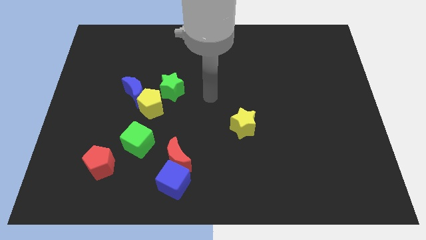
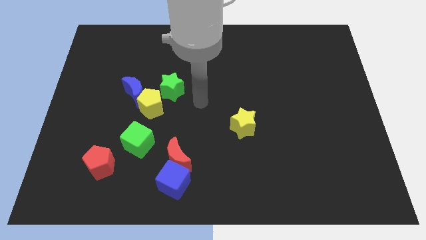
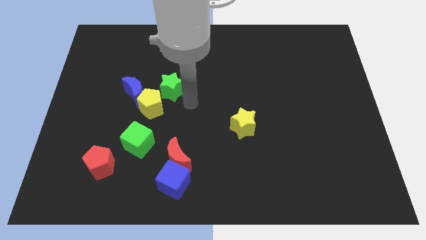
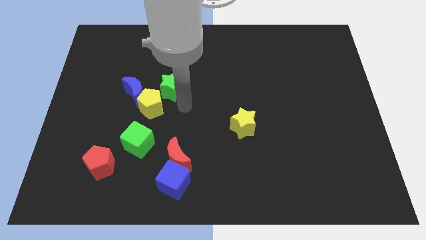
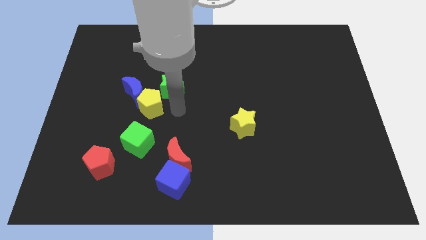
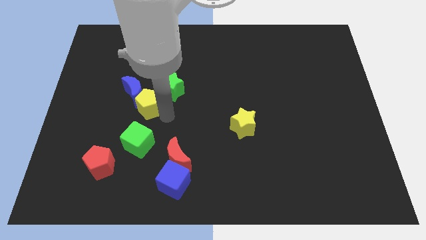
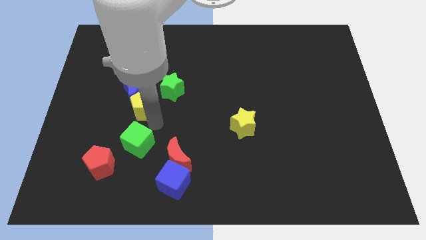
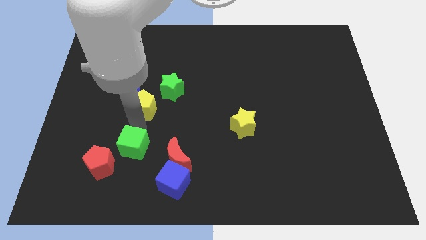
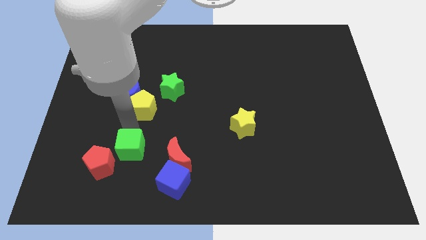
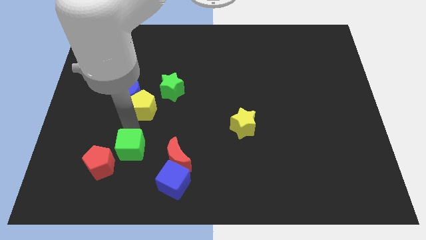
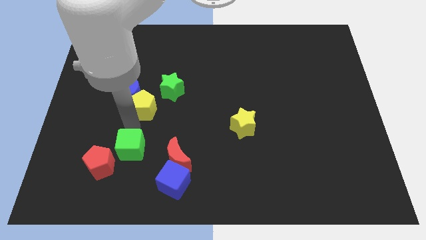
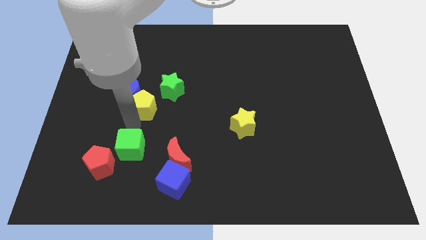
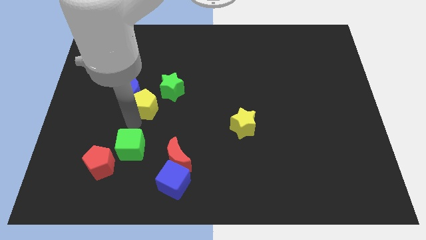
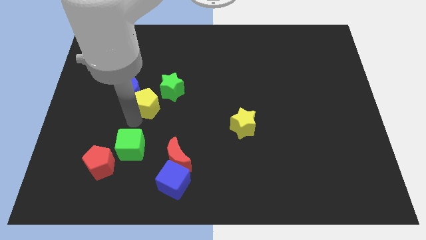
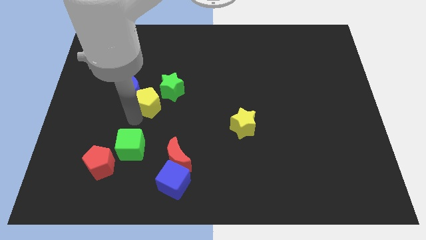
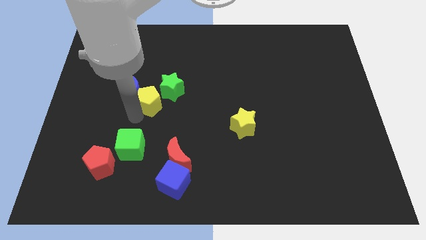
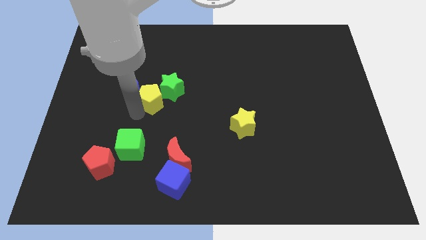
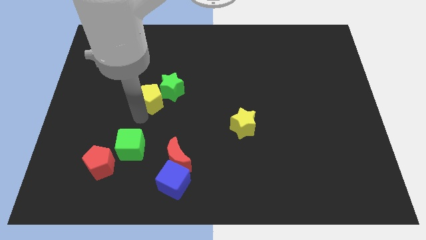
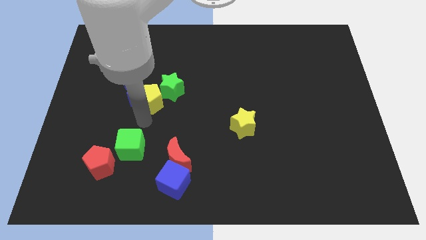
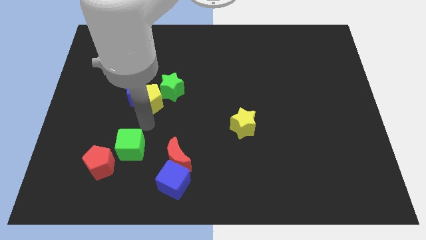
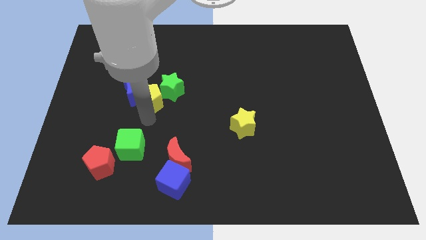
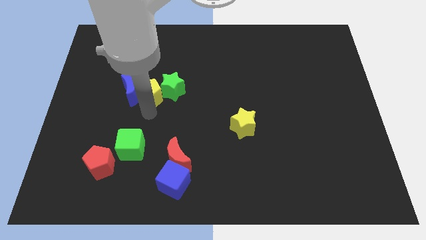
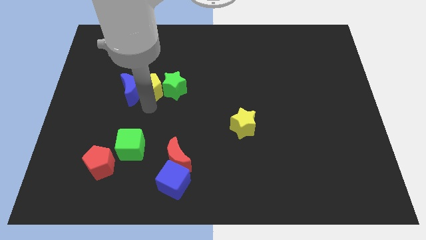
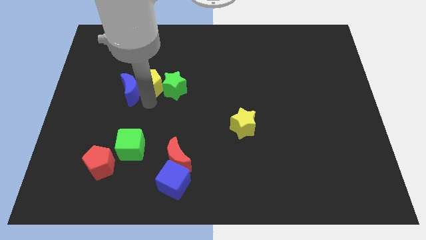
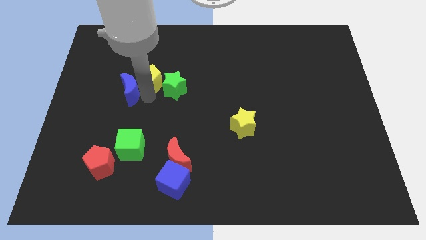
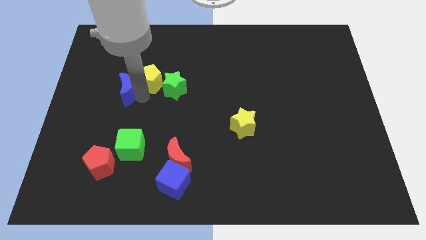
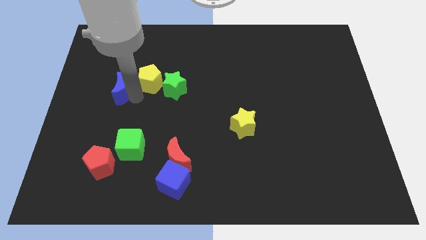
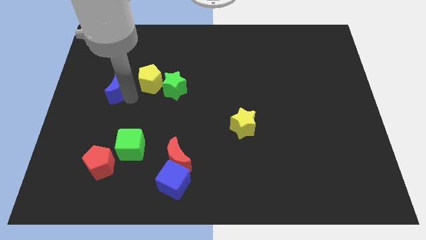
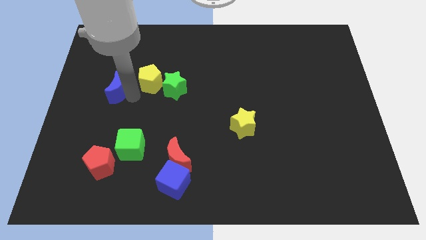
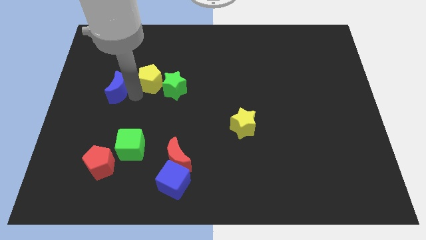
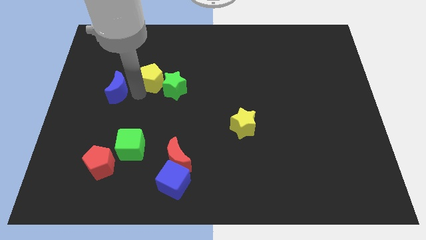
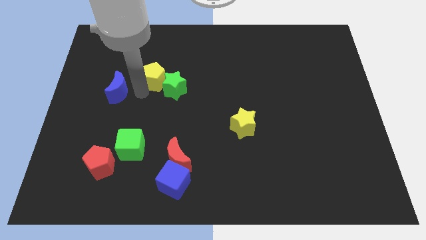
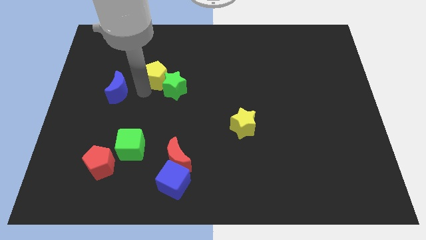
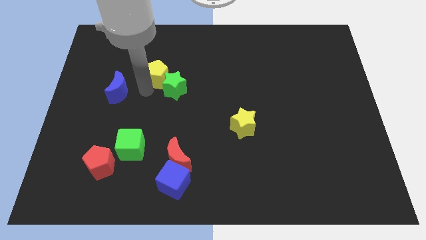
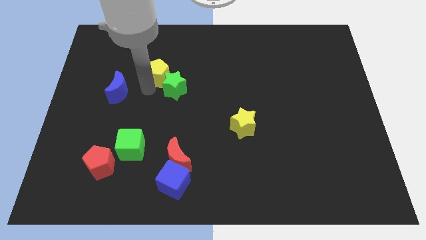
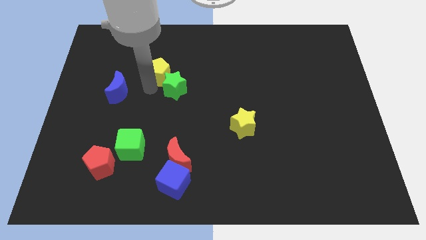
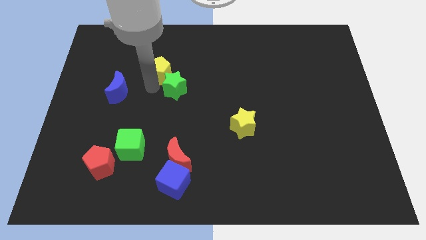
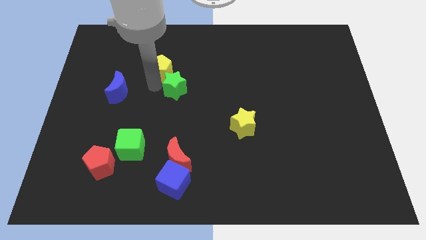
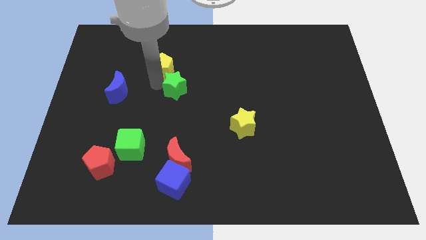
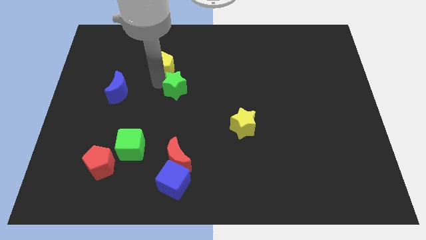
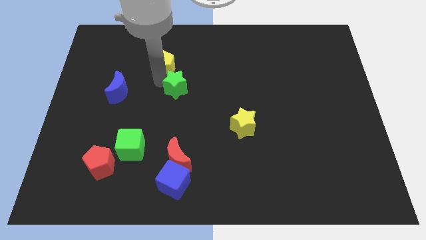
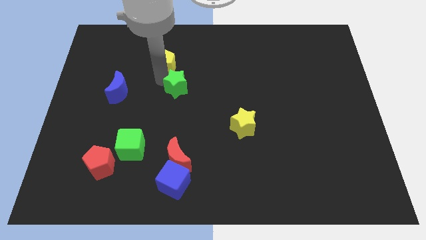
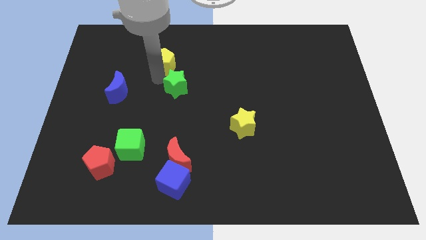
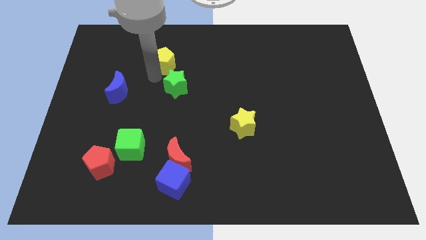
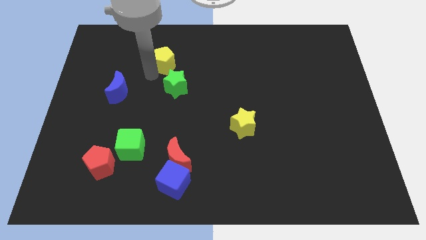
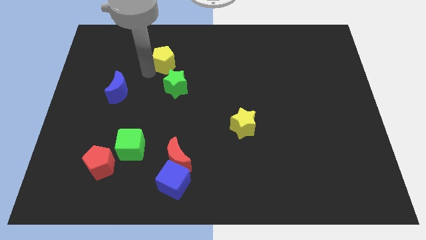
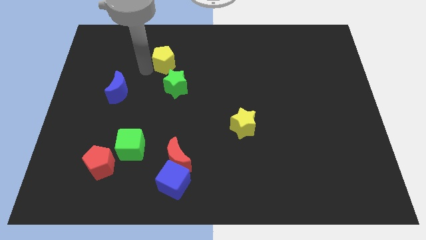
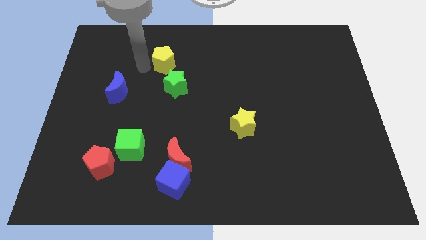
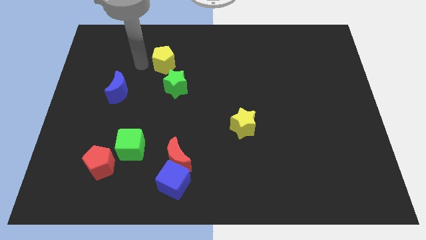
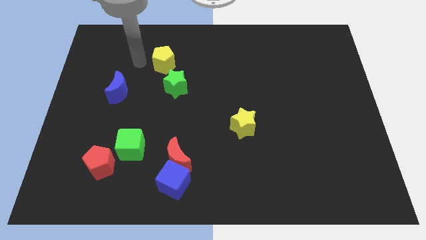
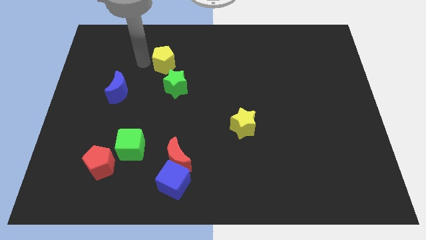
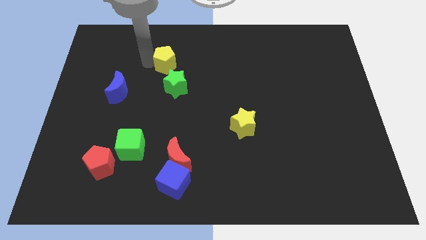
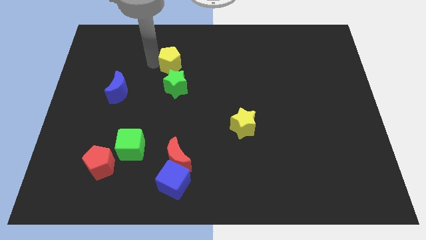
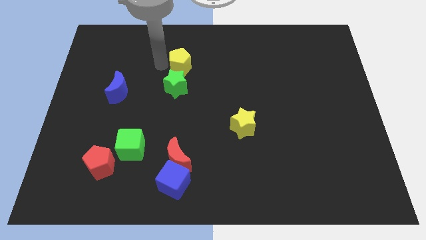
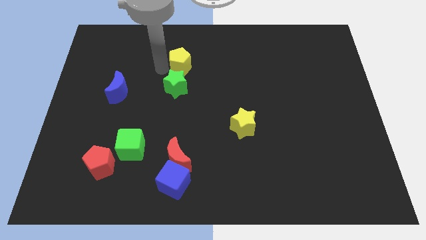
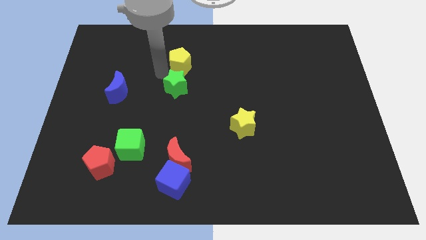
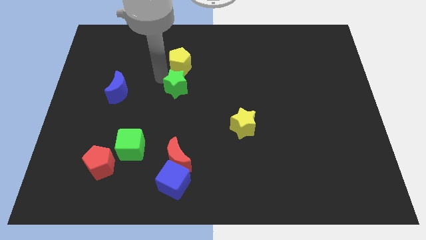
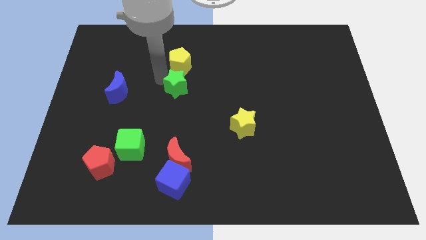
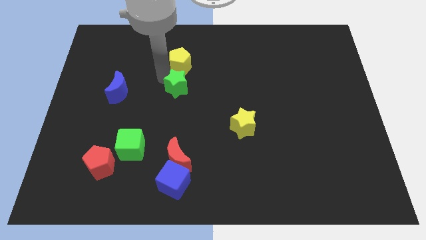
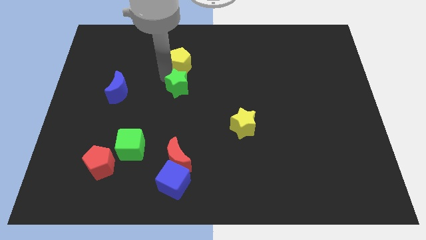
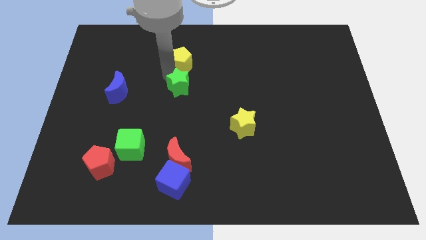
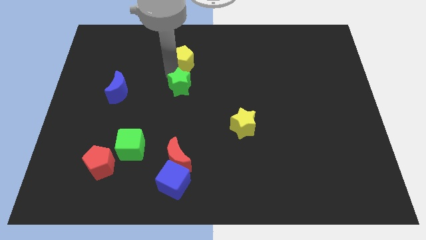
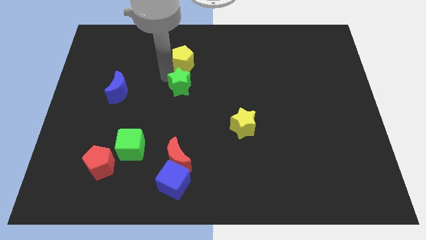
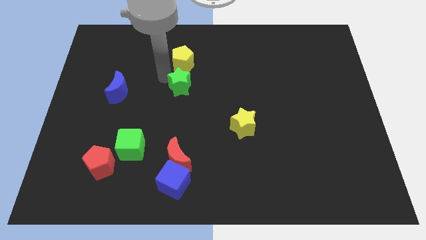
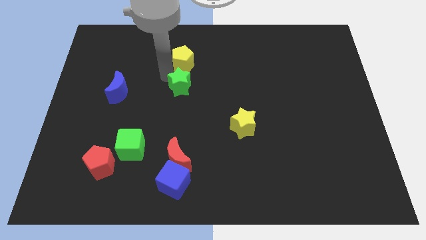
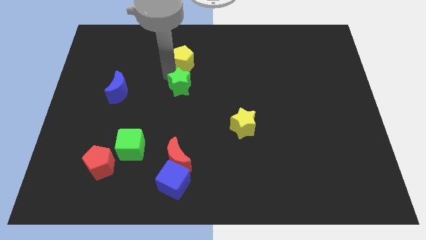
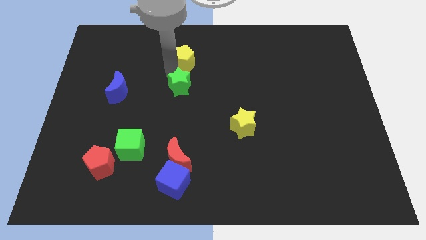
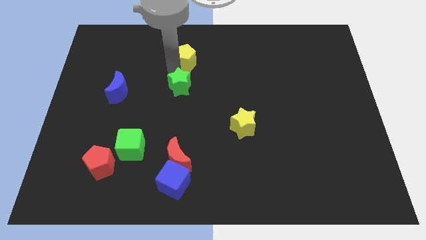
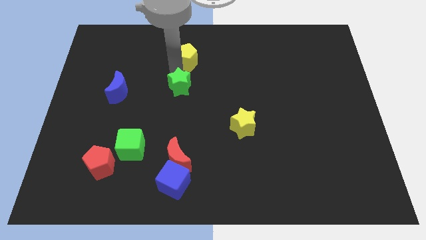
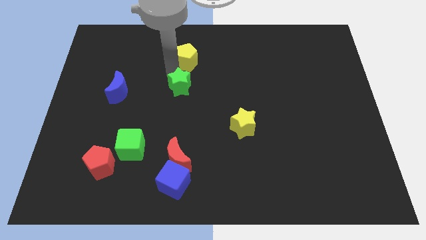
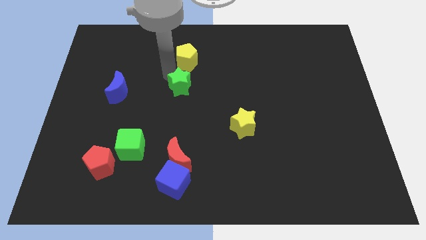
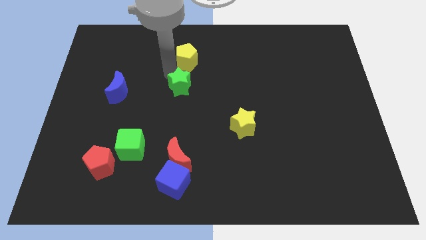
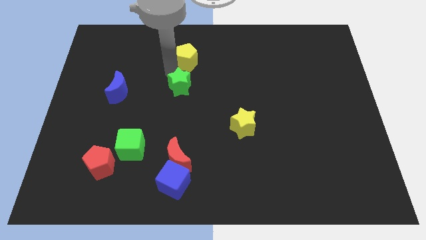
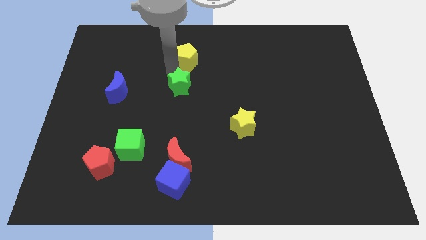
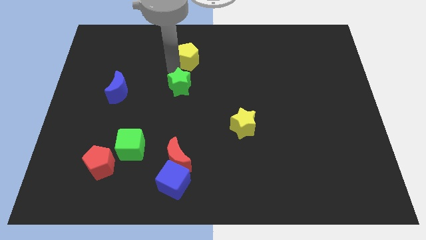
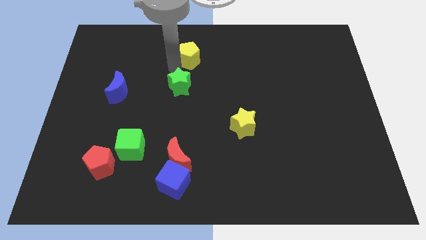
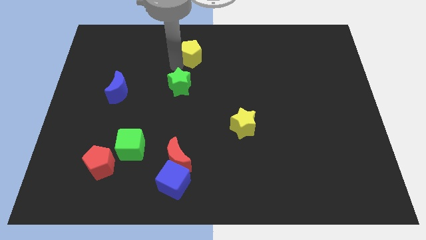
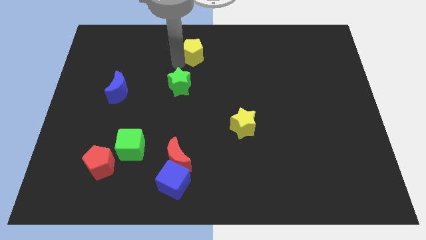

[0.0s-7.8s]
push the yellow pentagon to the towards your base
